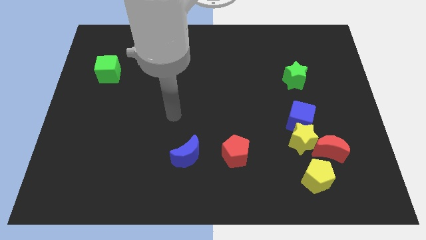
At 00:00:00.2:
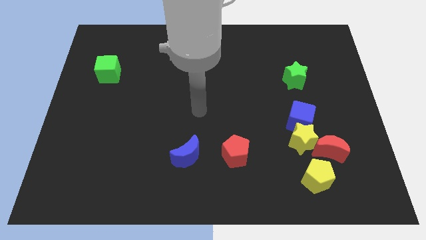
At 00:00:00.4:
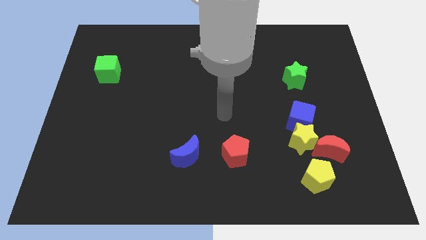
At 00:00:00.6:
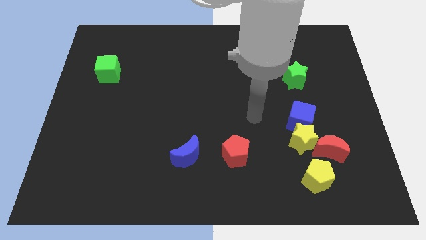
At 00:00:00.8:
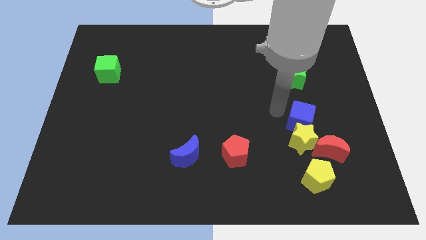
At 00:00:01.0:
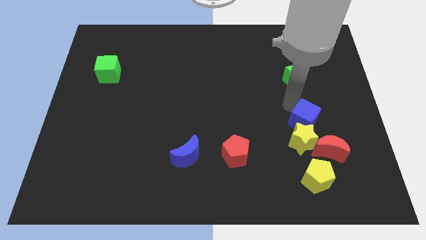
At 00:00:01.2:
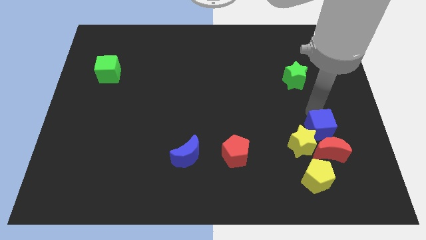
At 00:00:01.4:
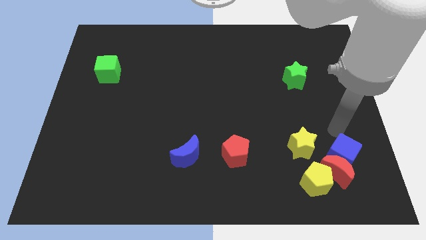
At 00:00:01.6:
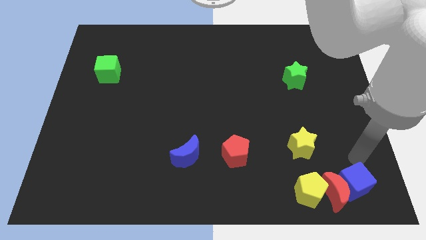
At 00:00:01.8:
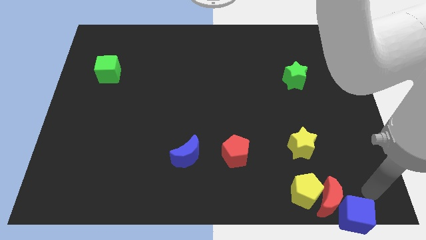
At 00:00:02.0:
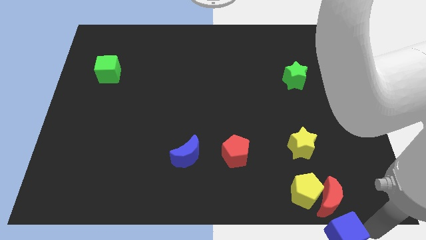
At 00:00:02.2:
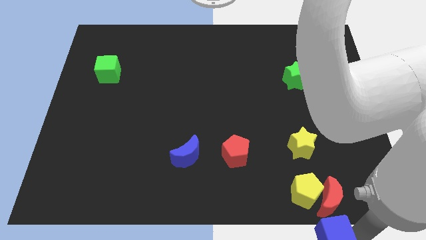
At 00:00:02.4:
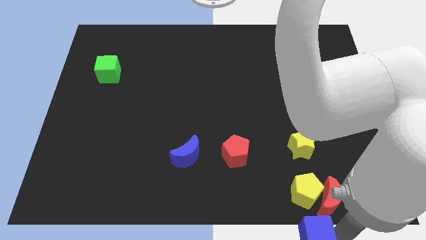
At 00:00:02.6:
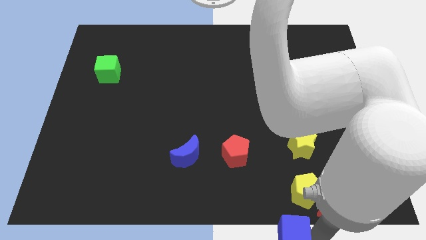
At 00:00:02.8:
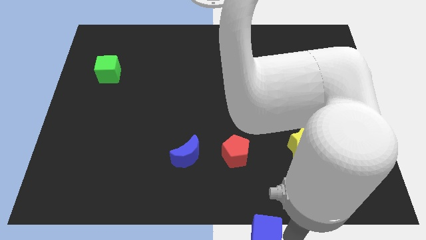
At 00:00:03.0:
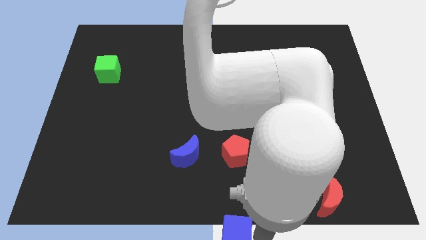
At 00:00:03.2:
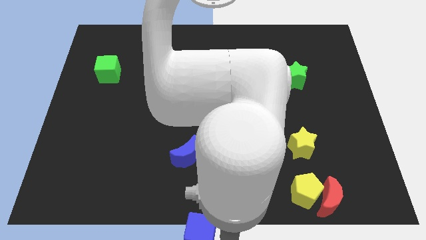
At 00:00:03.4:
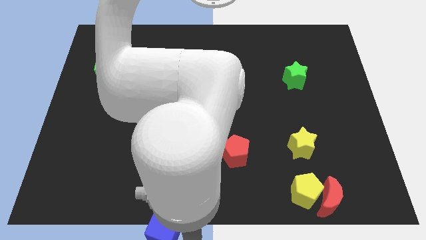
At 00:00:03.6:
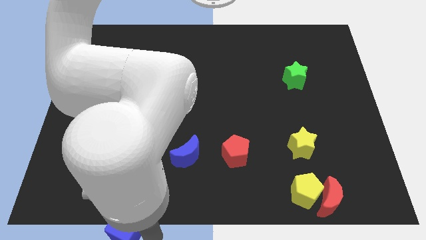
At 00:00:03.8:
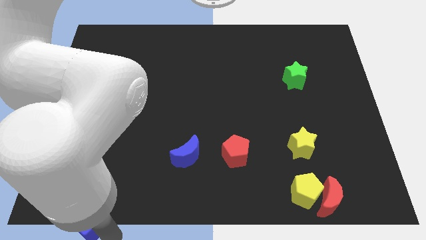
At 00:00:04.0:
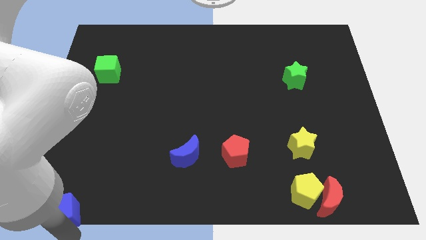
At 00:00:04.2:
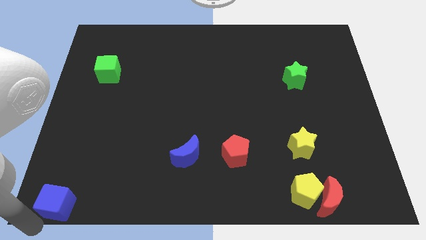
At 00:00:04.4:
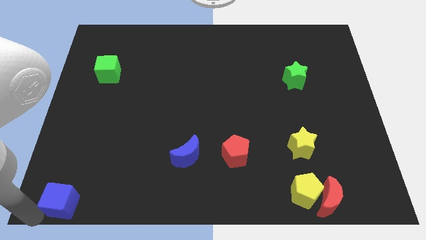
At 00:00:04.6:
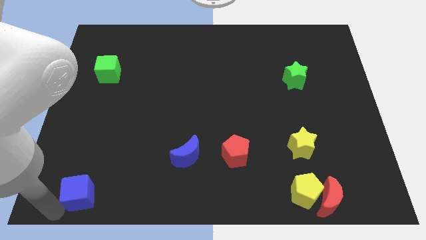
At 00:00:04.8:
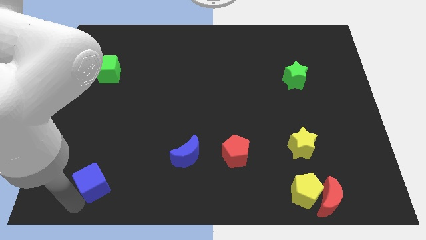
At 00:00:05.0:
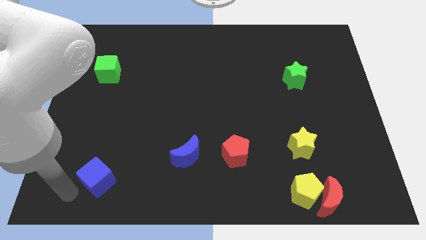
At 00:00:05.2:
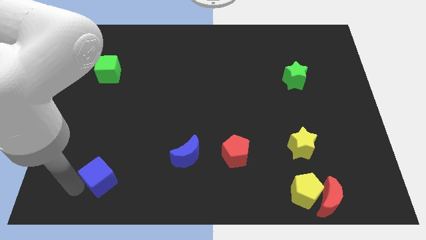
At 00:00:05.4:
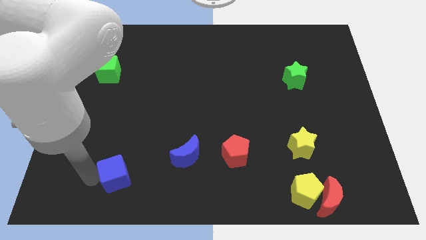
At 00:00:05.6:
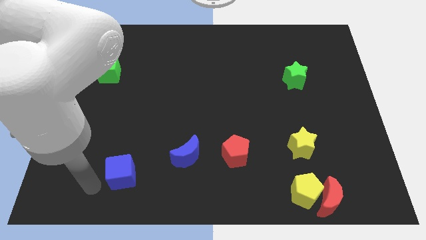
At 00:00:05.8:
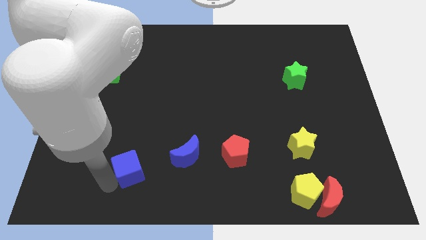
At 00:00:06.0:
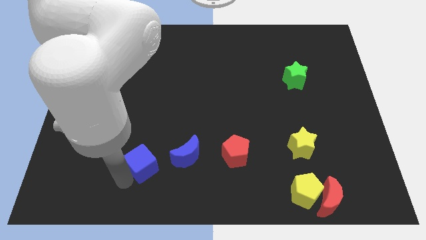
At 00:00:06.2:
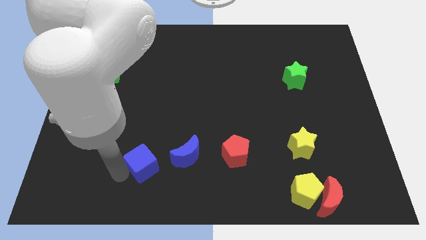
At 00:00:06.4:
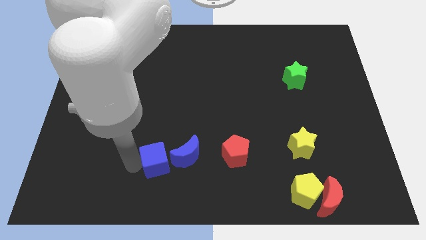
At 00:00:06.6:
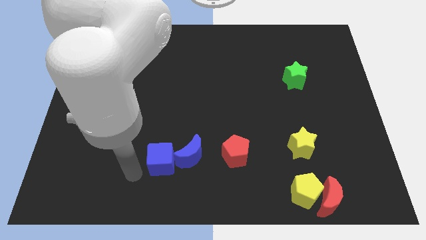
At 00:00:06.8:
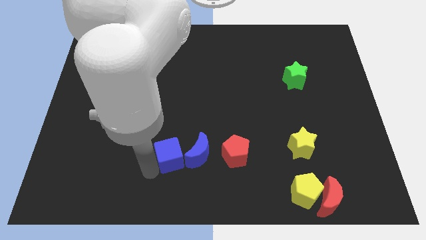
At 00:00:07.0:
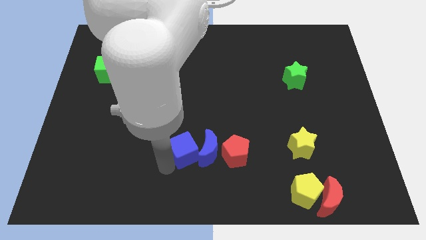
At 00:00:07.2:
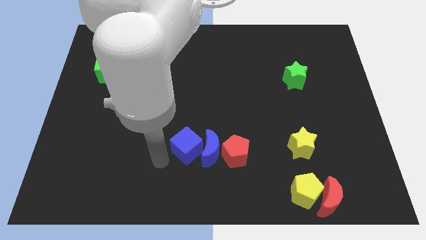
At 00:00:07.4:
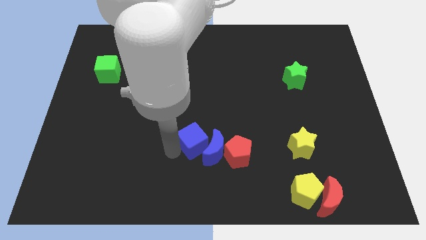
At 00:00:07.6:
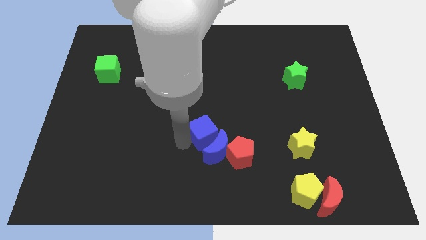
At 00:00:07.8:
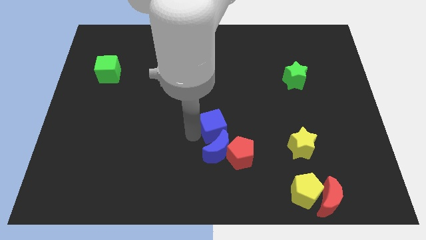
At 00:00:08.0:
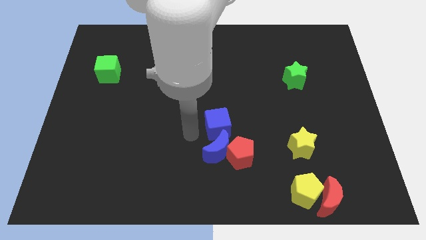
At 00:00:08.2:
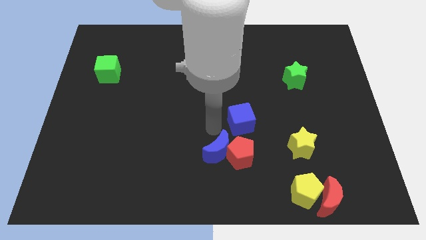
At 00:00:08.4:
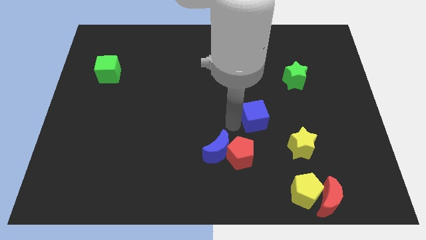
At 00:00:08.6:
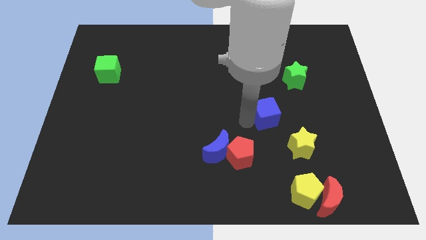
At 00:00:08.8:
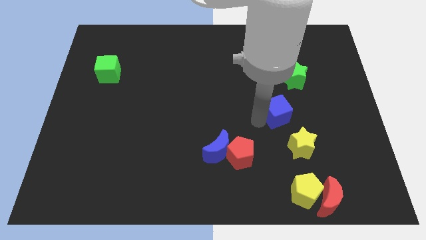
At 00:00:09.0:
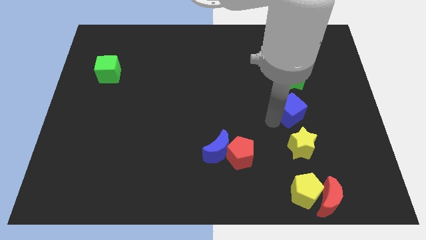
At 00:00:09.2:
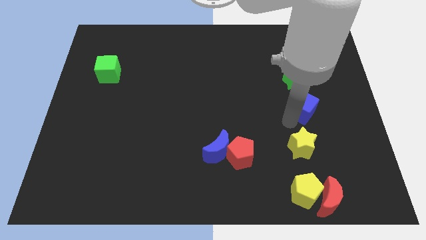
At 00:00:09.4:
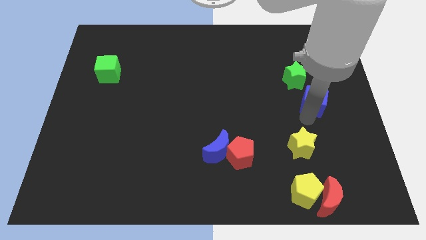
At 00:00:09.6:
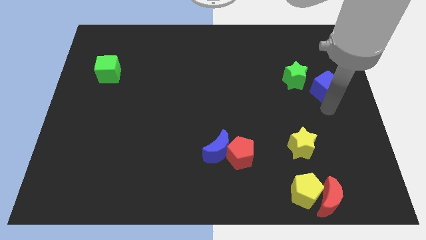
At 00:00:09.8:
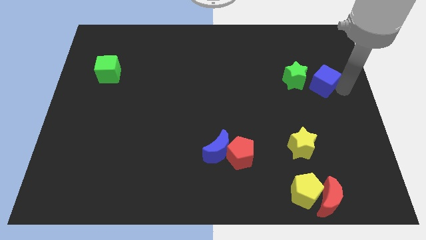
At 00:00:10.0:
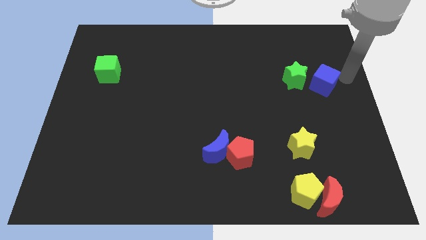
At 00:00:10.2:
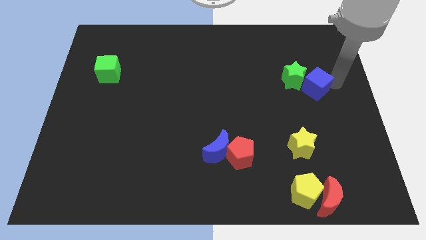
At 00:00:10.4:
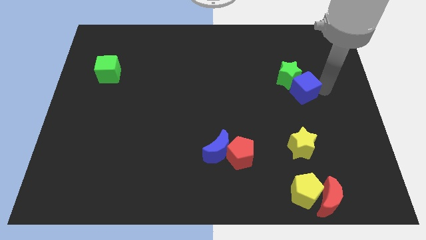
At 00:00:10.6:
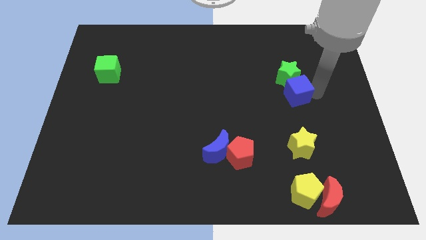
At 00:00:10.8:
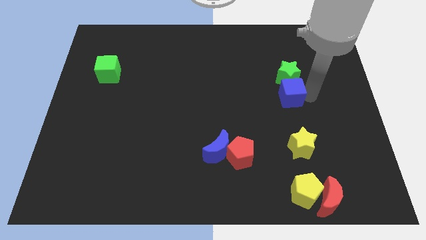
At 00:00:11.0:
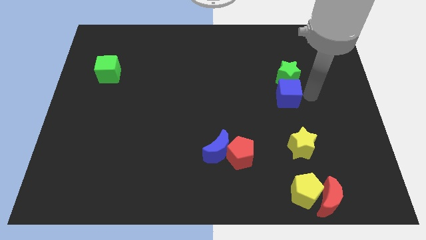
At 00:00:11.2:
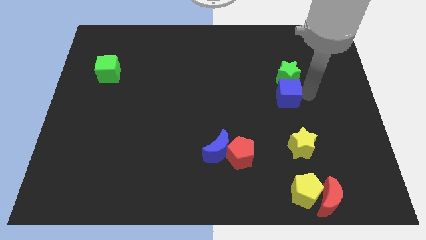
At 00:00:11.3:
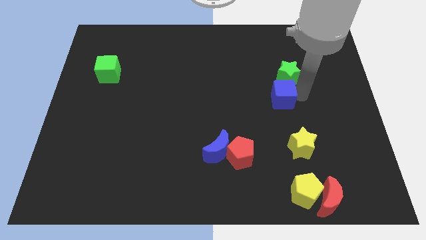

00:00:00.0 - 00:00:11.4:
move the blue cube up and then left slightly

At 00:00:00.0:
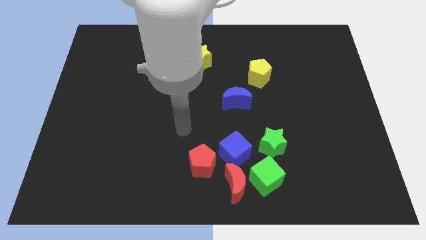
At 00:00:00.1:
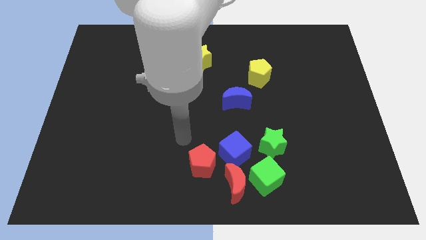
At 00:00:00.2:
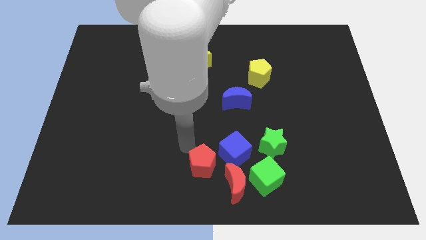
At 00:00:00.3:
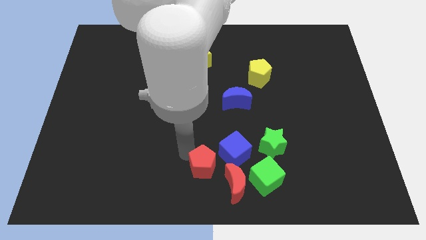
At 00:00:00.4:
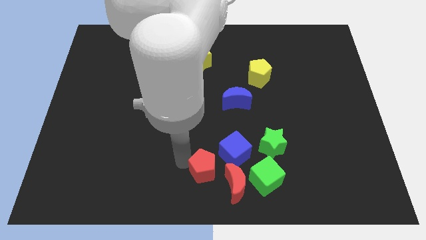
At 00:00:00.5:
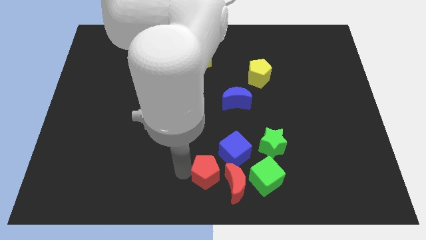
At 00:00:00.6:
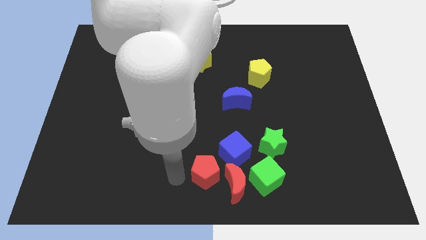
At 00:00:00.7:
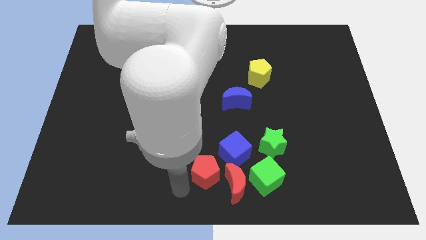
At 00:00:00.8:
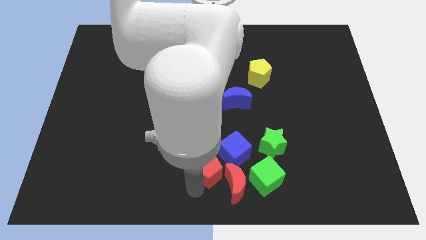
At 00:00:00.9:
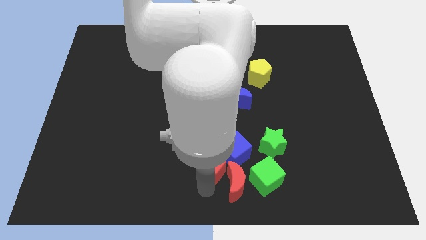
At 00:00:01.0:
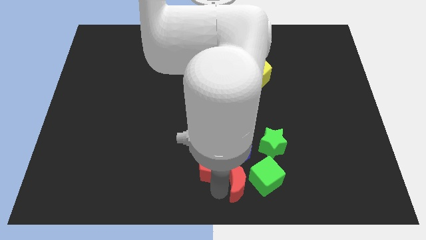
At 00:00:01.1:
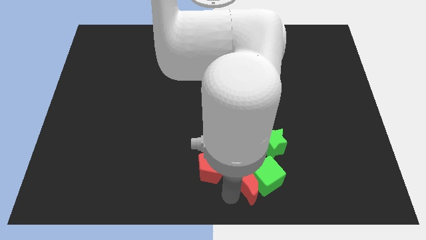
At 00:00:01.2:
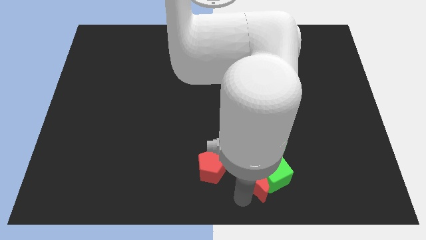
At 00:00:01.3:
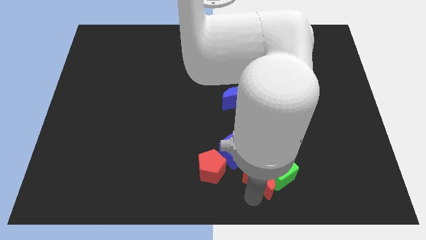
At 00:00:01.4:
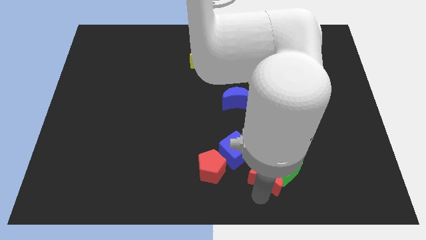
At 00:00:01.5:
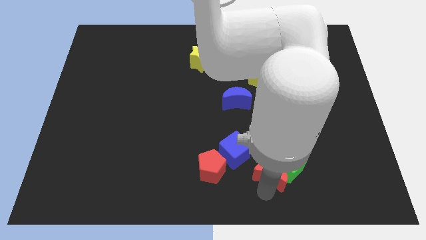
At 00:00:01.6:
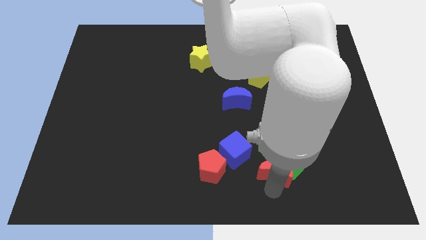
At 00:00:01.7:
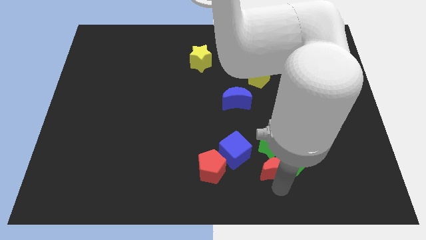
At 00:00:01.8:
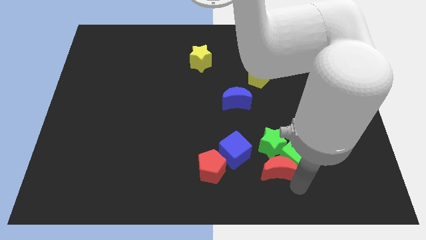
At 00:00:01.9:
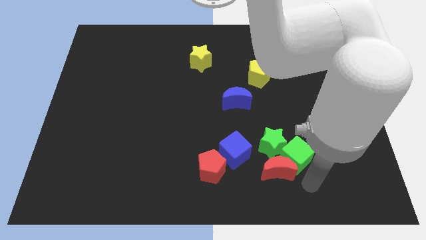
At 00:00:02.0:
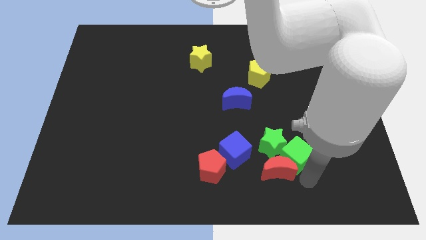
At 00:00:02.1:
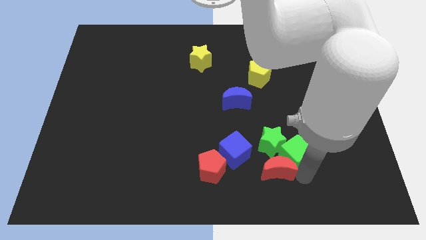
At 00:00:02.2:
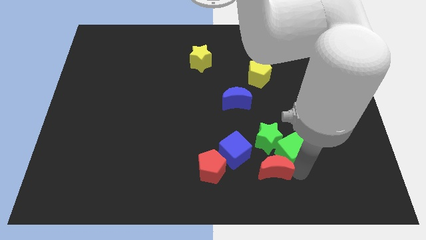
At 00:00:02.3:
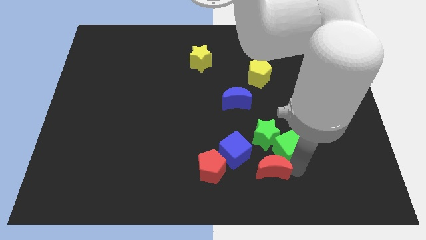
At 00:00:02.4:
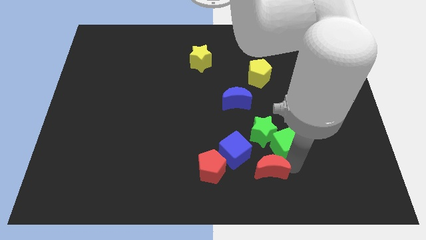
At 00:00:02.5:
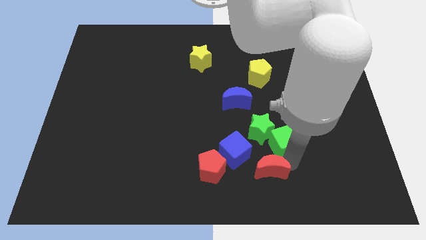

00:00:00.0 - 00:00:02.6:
push the green cube upwards a bit
